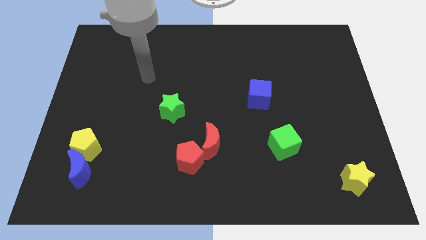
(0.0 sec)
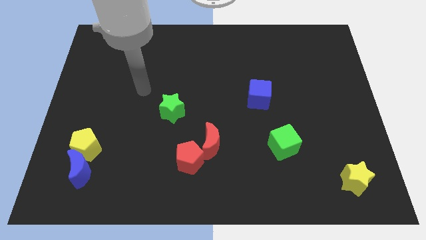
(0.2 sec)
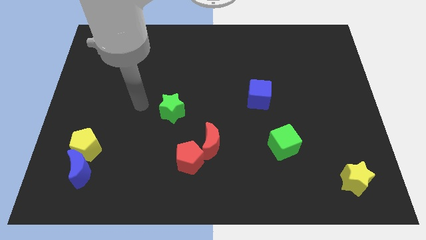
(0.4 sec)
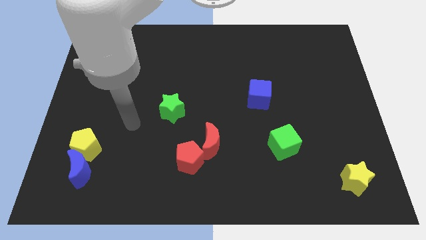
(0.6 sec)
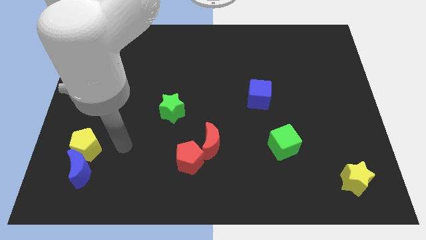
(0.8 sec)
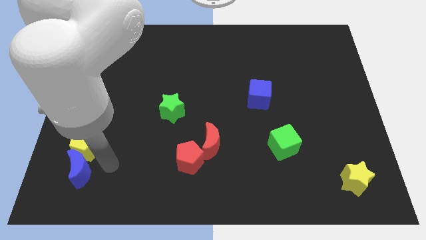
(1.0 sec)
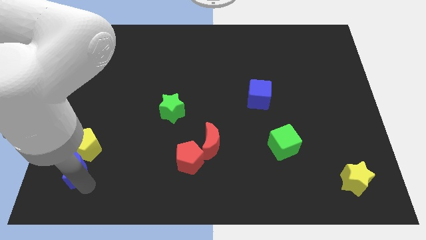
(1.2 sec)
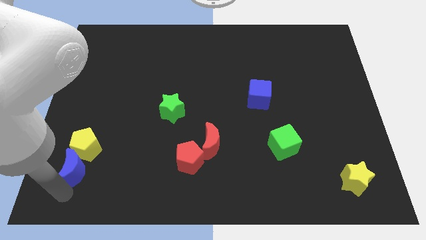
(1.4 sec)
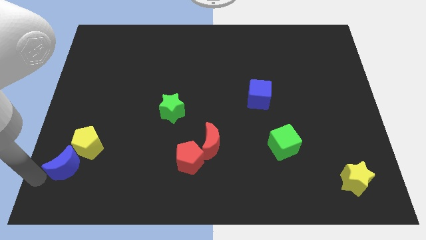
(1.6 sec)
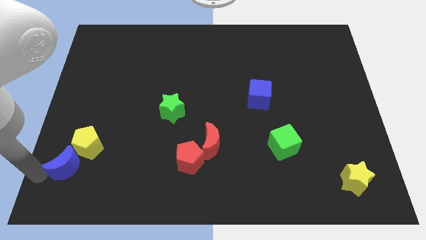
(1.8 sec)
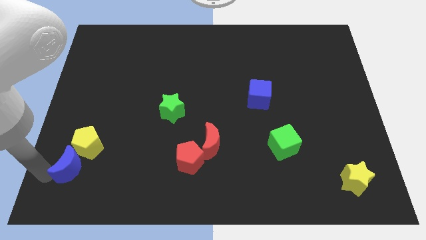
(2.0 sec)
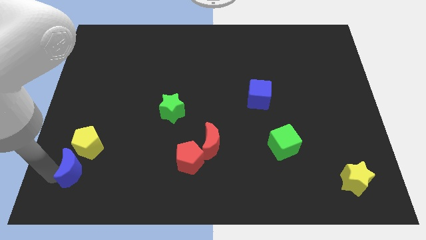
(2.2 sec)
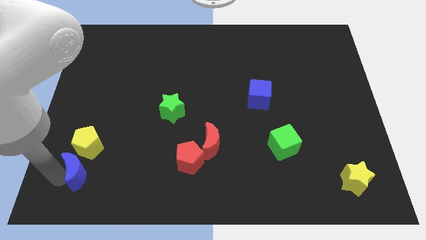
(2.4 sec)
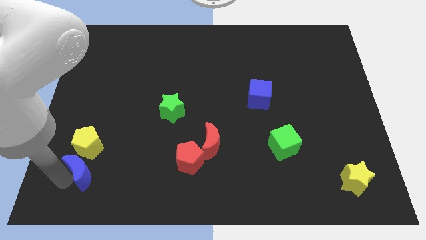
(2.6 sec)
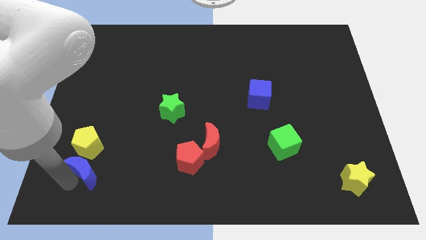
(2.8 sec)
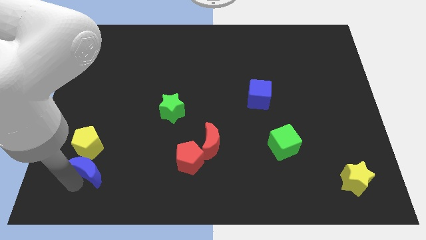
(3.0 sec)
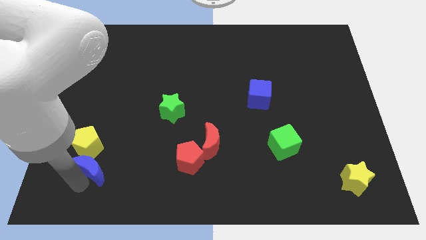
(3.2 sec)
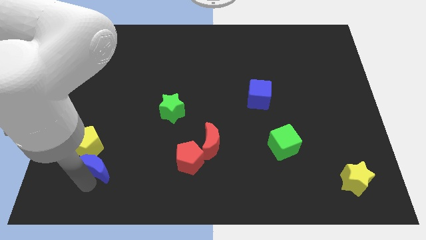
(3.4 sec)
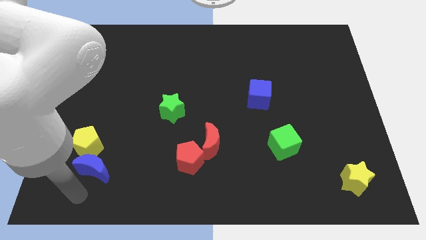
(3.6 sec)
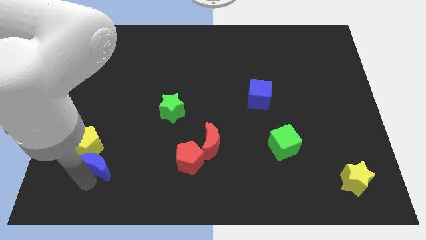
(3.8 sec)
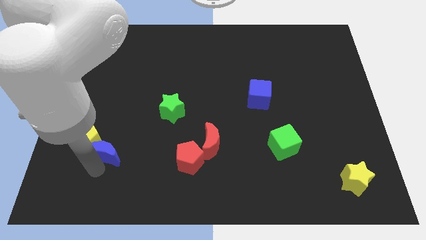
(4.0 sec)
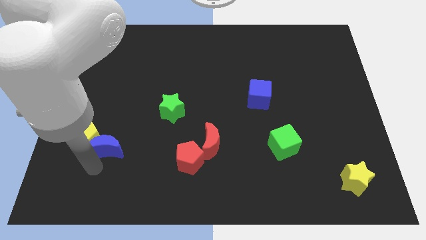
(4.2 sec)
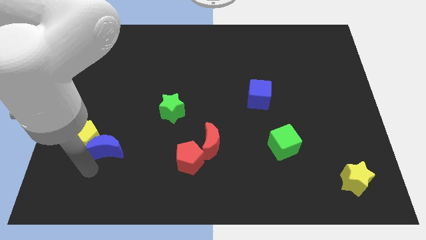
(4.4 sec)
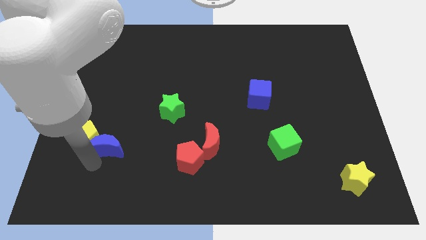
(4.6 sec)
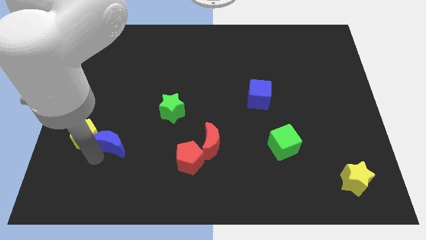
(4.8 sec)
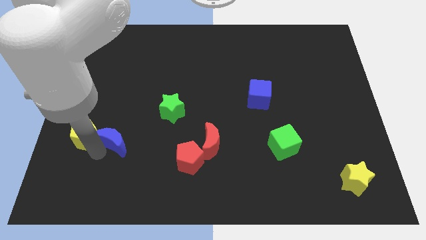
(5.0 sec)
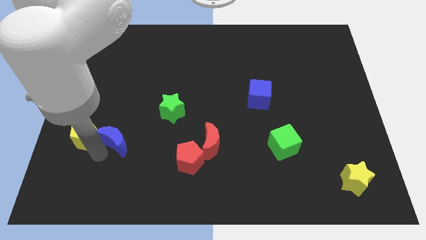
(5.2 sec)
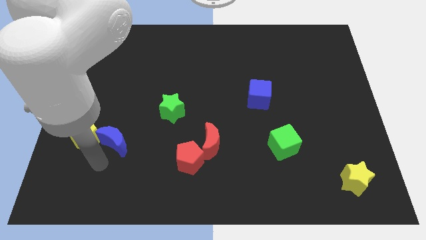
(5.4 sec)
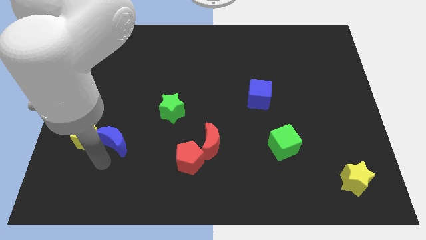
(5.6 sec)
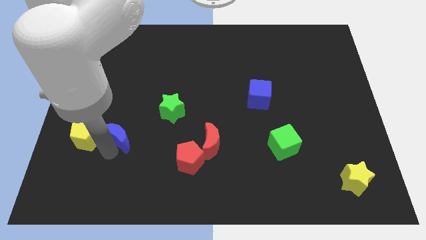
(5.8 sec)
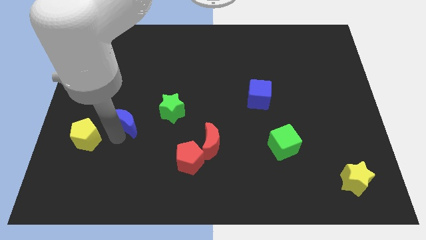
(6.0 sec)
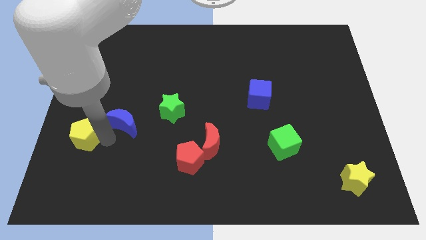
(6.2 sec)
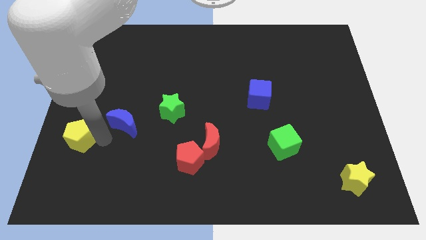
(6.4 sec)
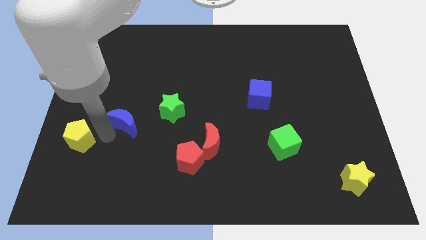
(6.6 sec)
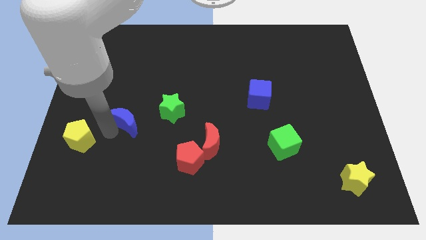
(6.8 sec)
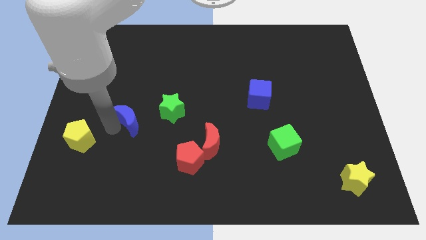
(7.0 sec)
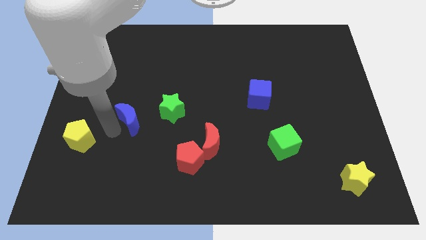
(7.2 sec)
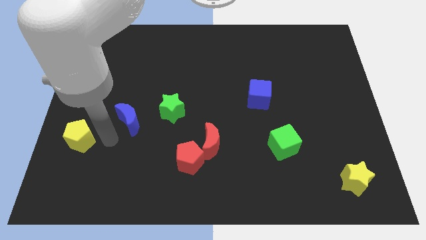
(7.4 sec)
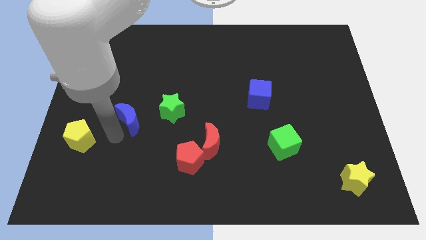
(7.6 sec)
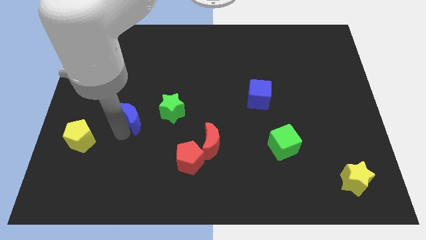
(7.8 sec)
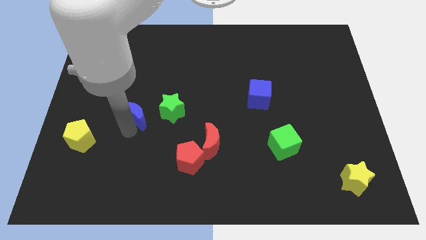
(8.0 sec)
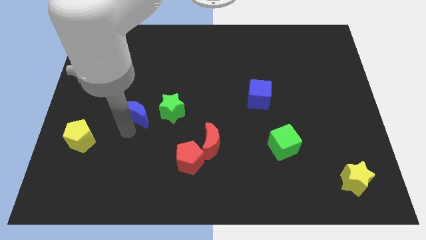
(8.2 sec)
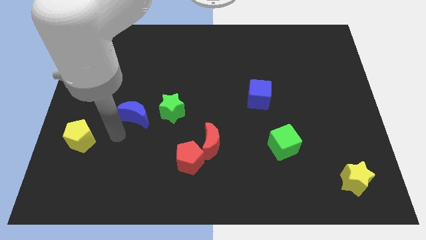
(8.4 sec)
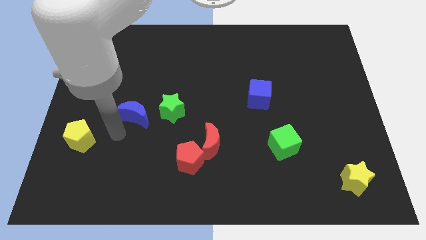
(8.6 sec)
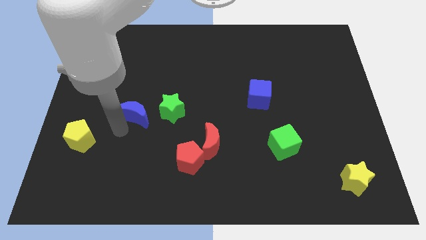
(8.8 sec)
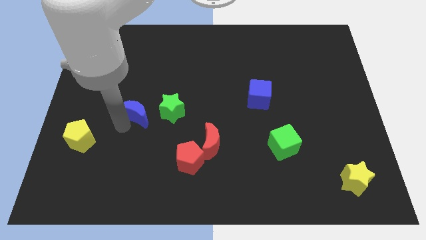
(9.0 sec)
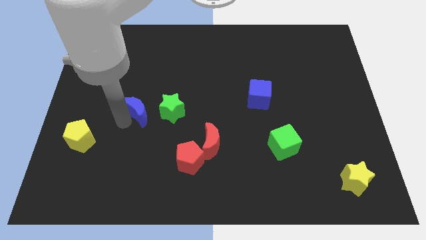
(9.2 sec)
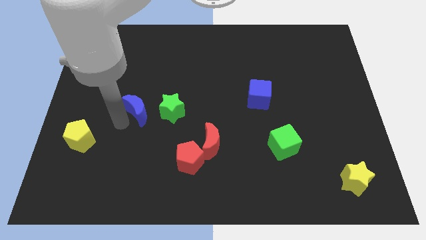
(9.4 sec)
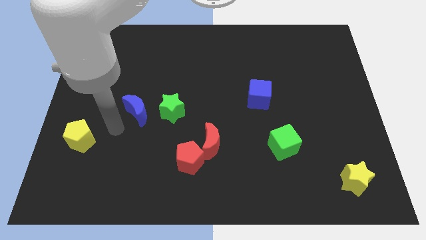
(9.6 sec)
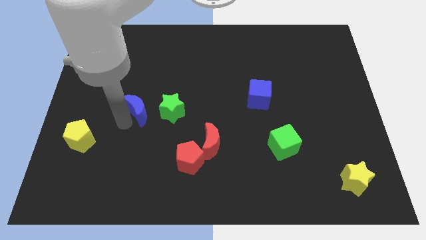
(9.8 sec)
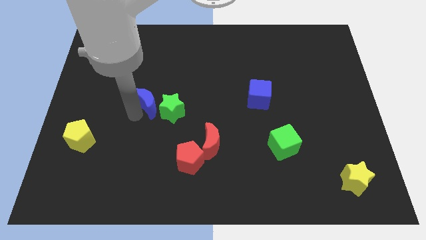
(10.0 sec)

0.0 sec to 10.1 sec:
slide the blue moon up and then right

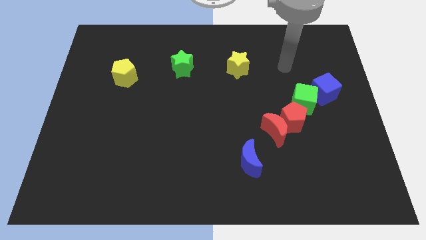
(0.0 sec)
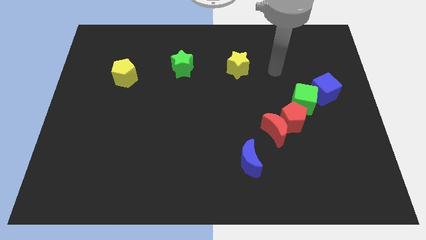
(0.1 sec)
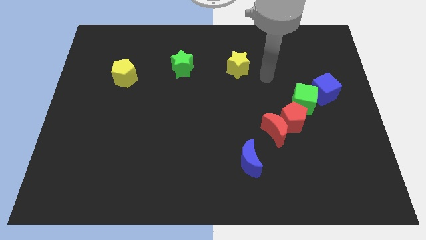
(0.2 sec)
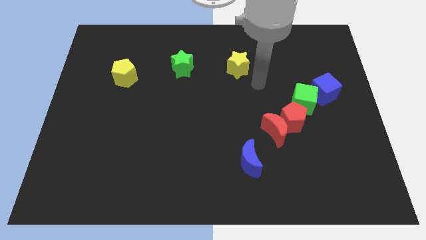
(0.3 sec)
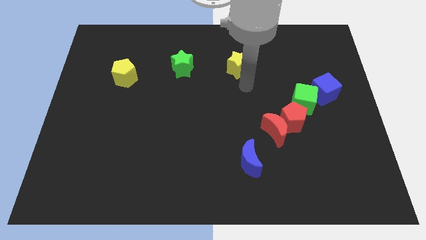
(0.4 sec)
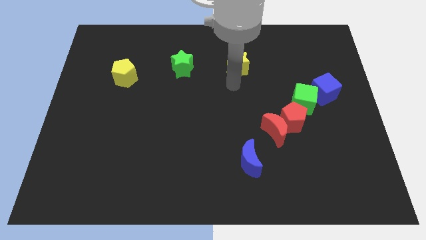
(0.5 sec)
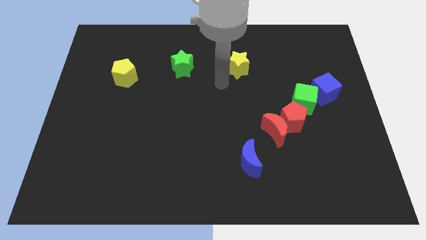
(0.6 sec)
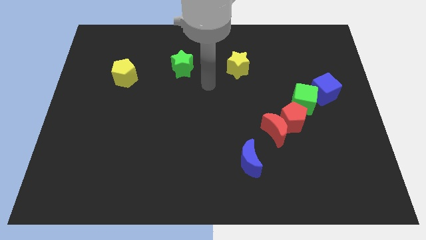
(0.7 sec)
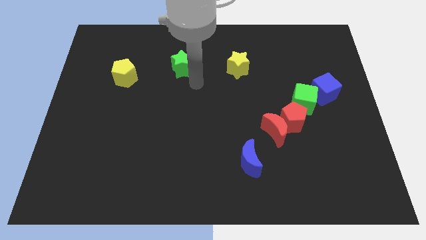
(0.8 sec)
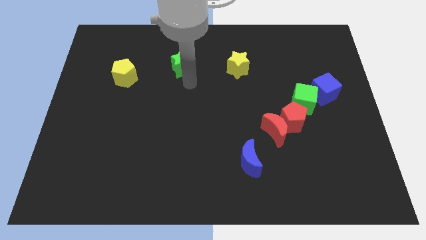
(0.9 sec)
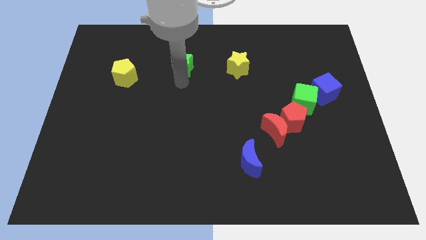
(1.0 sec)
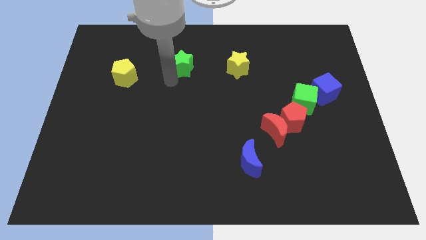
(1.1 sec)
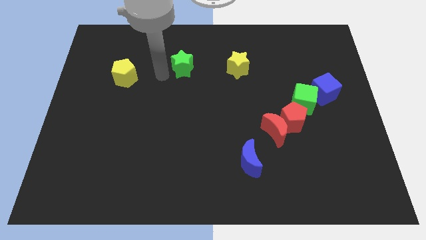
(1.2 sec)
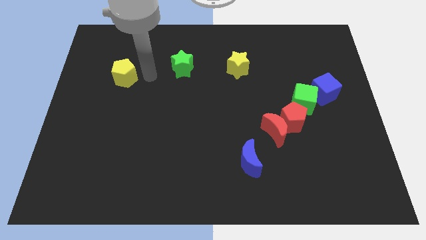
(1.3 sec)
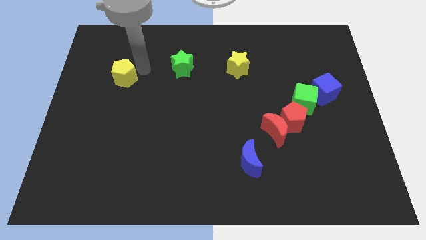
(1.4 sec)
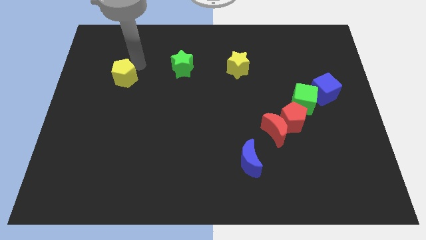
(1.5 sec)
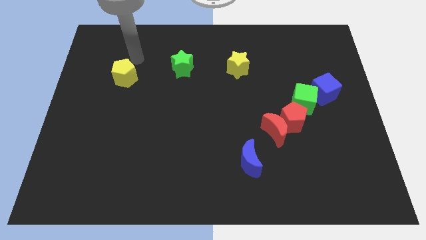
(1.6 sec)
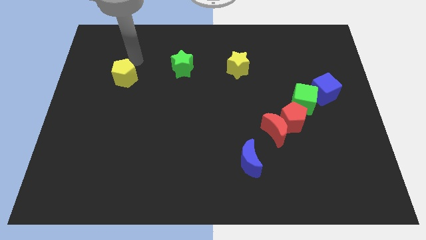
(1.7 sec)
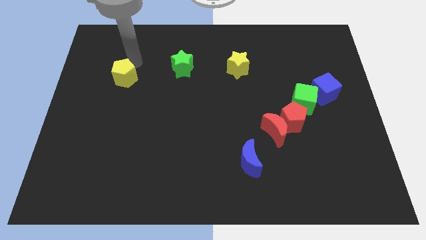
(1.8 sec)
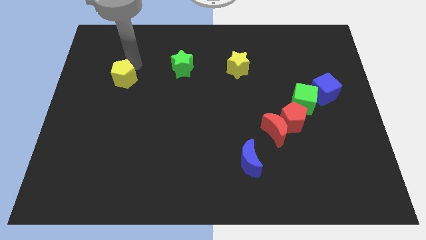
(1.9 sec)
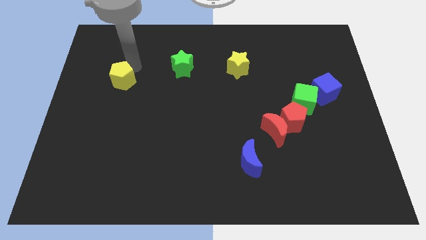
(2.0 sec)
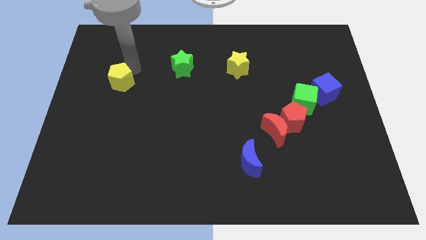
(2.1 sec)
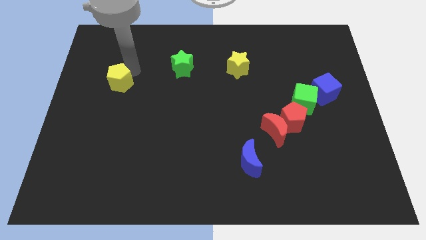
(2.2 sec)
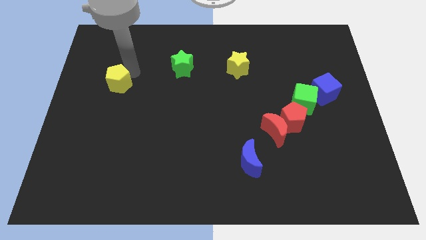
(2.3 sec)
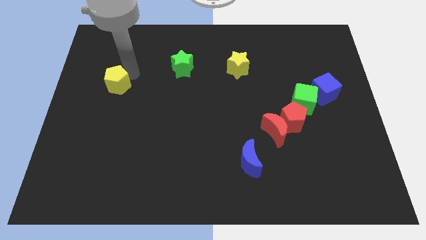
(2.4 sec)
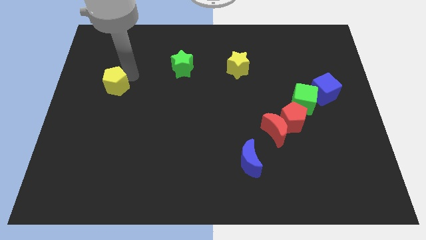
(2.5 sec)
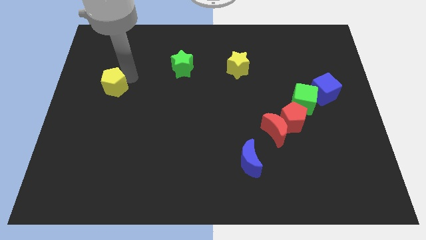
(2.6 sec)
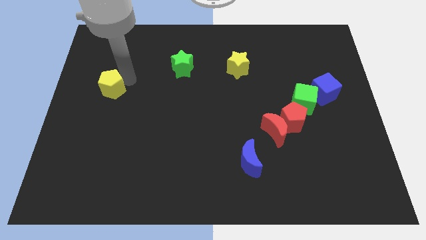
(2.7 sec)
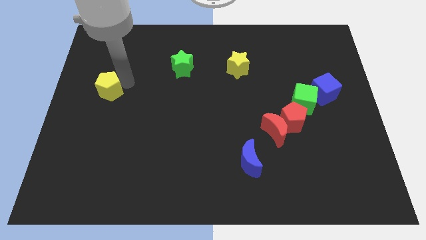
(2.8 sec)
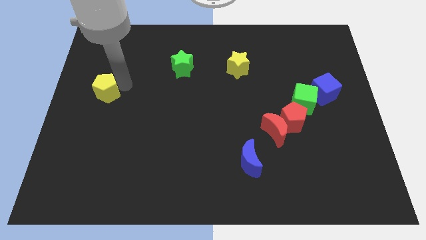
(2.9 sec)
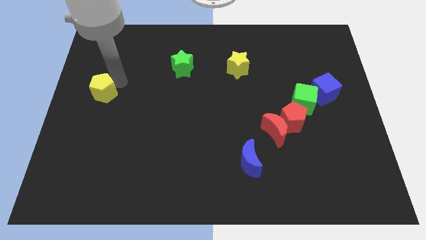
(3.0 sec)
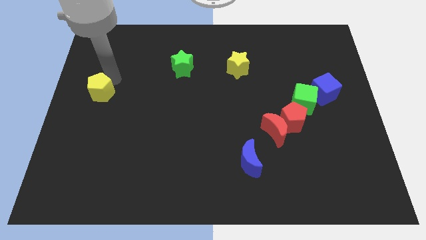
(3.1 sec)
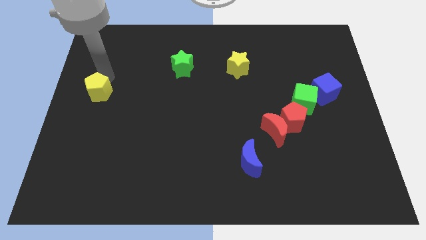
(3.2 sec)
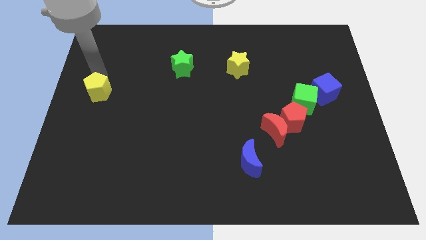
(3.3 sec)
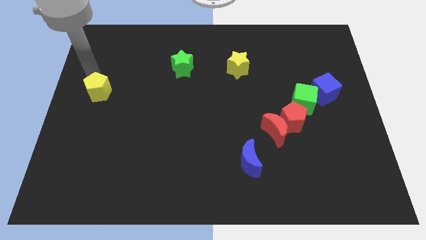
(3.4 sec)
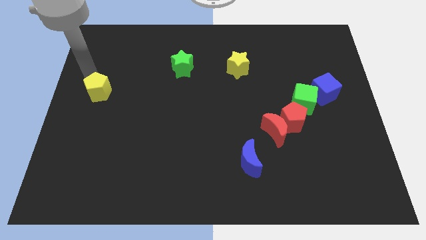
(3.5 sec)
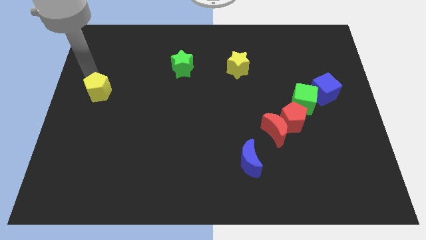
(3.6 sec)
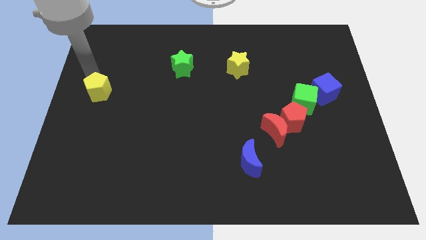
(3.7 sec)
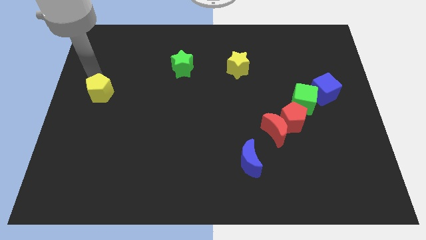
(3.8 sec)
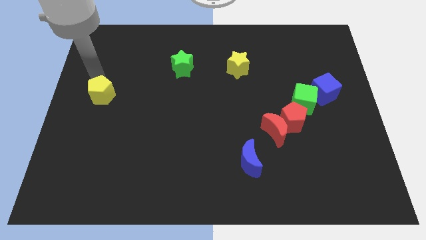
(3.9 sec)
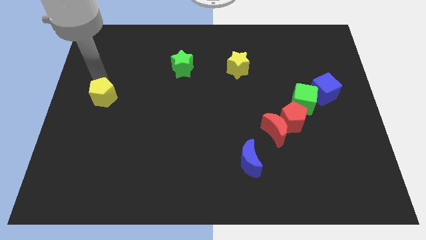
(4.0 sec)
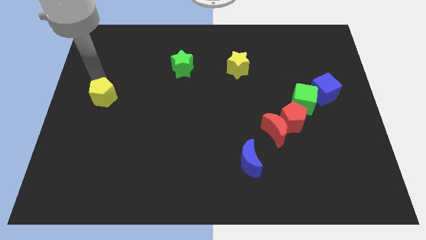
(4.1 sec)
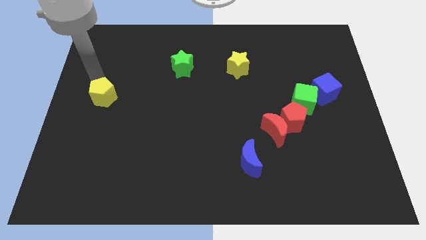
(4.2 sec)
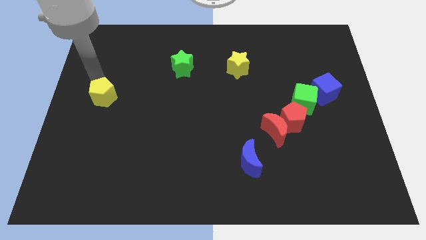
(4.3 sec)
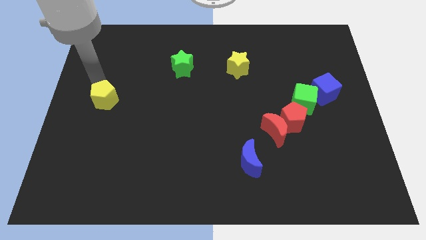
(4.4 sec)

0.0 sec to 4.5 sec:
slide the yellow pentagon a little down
